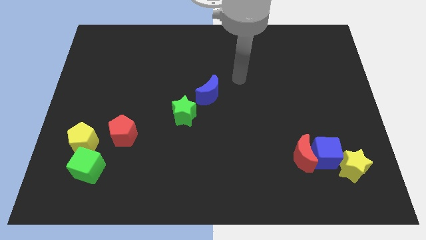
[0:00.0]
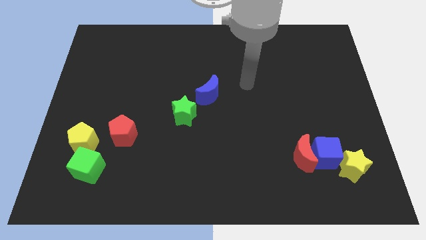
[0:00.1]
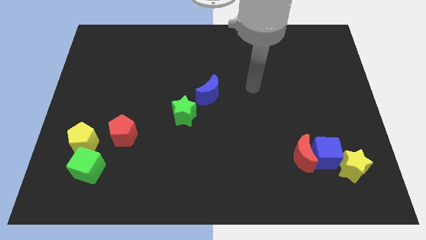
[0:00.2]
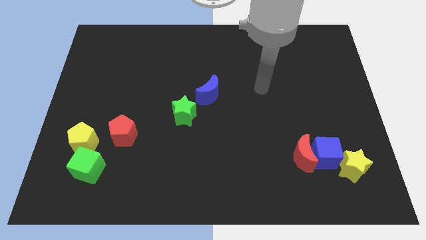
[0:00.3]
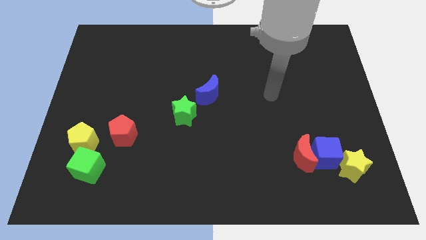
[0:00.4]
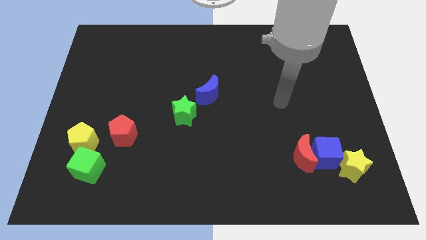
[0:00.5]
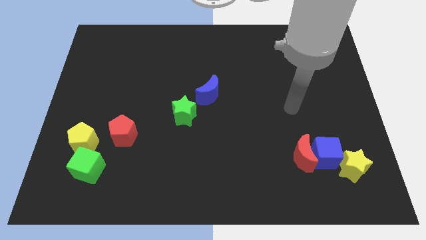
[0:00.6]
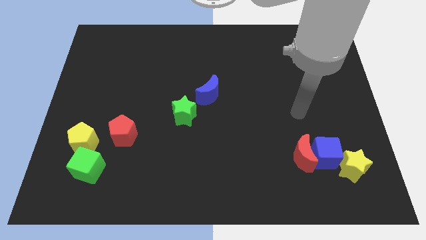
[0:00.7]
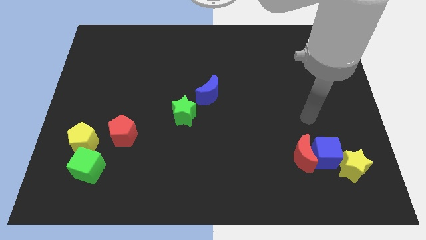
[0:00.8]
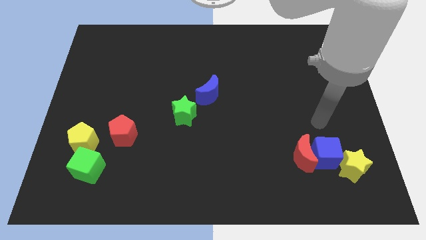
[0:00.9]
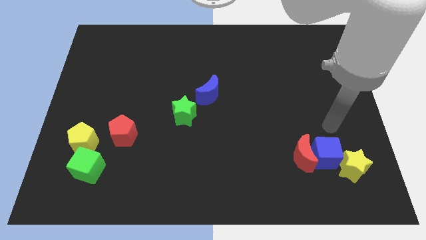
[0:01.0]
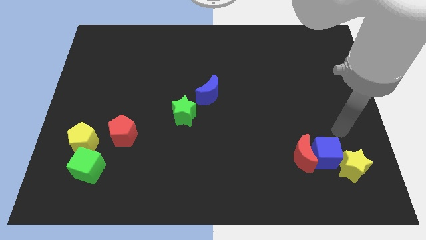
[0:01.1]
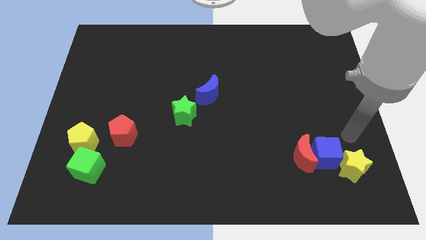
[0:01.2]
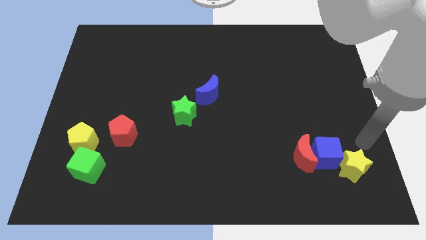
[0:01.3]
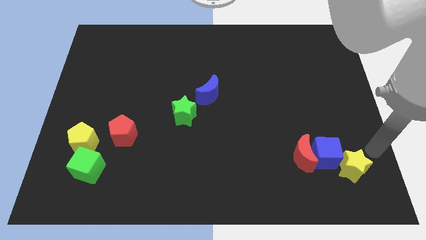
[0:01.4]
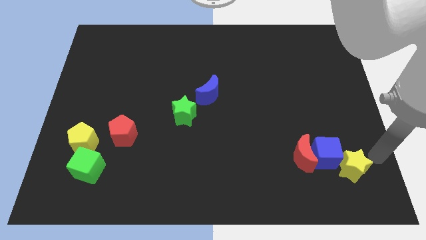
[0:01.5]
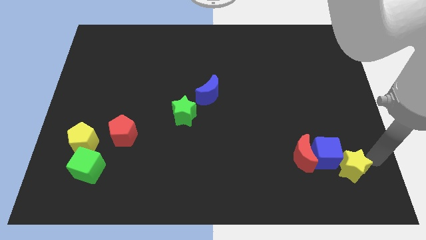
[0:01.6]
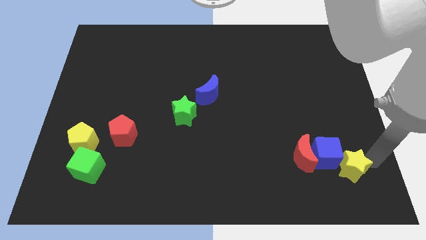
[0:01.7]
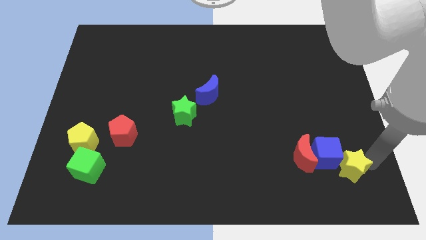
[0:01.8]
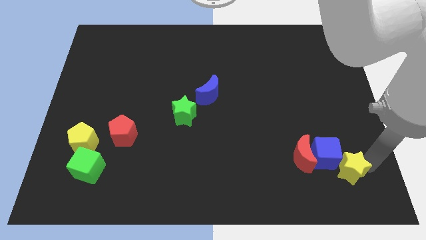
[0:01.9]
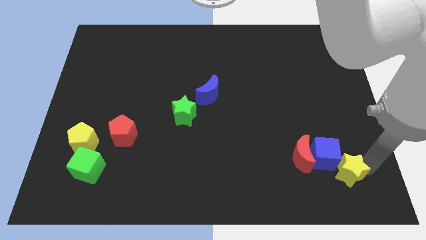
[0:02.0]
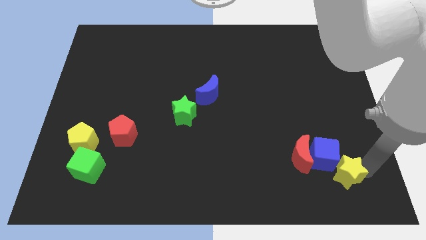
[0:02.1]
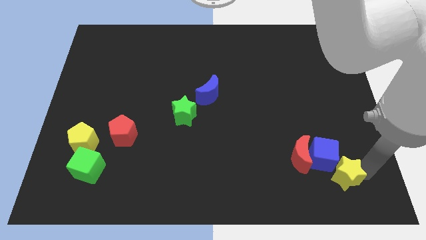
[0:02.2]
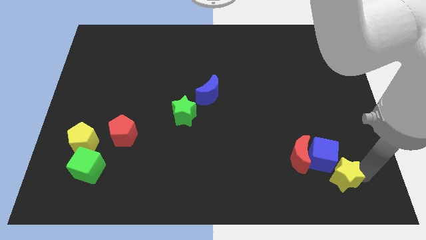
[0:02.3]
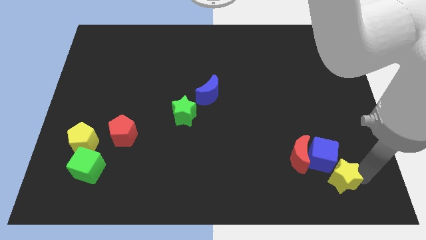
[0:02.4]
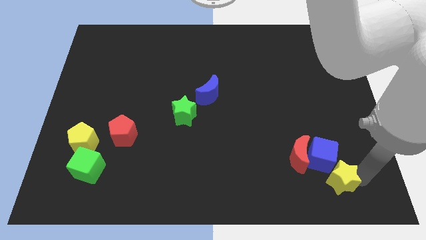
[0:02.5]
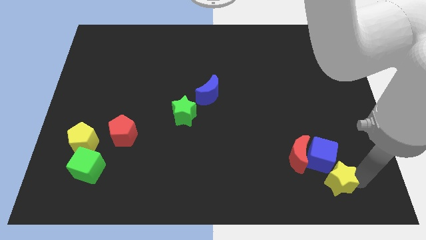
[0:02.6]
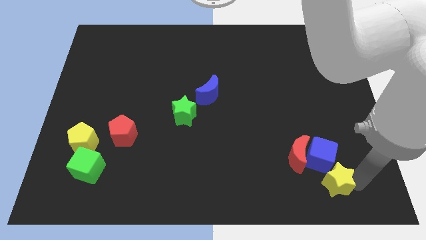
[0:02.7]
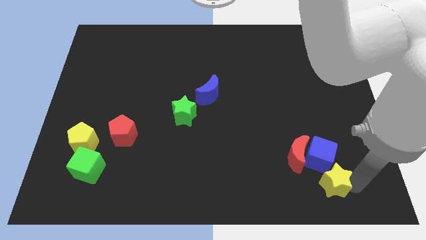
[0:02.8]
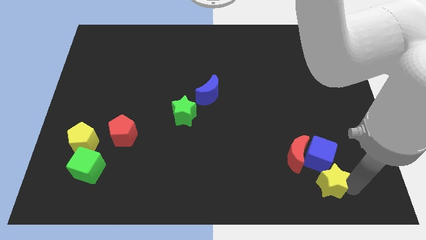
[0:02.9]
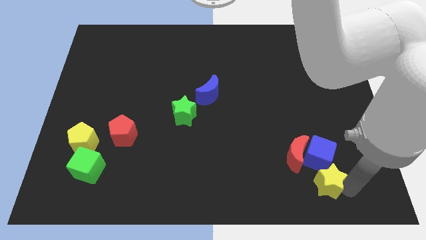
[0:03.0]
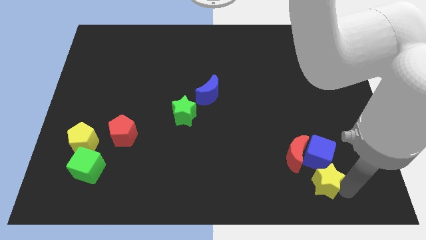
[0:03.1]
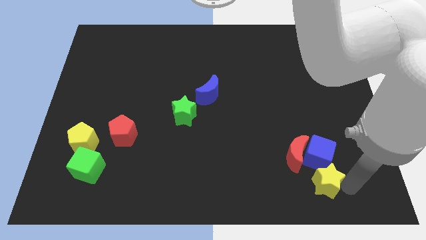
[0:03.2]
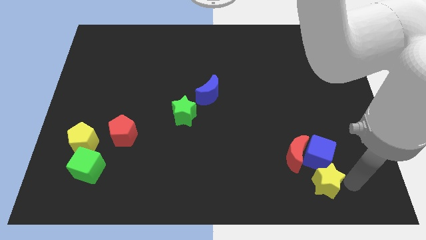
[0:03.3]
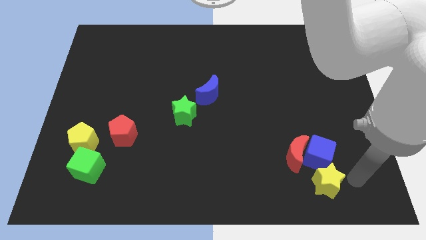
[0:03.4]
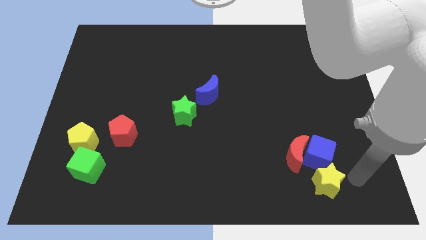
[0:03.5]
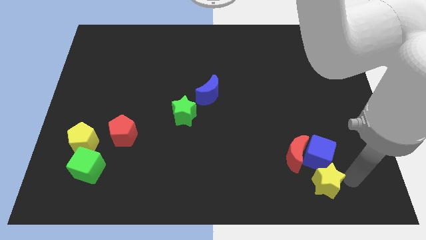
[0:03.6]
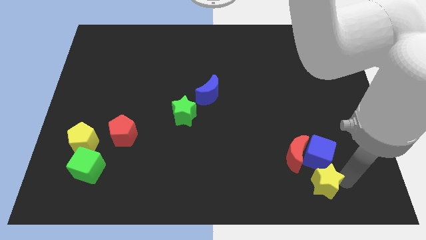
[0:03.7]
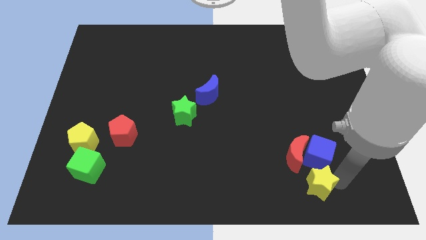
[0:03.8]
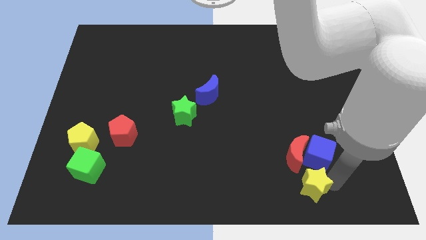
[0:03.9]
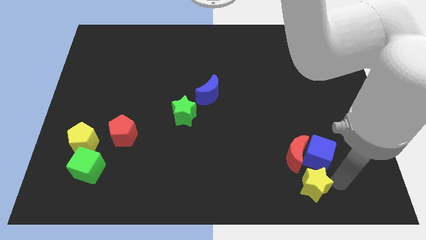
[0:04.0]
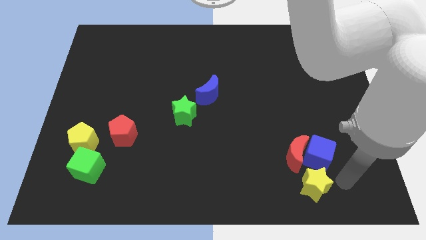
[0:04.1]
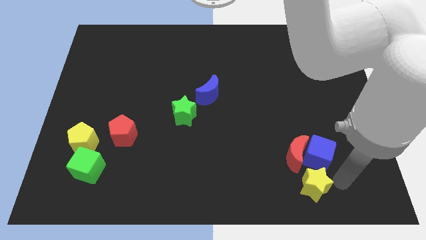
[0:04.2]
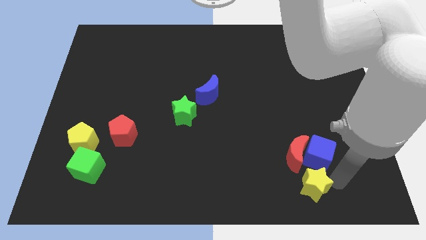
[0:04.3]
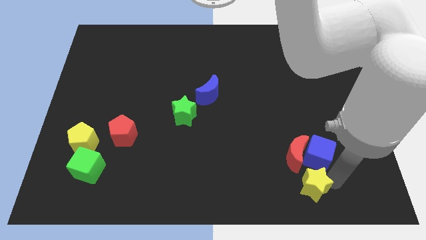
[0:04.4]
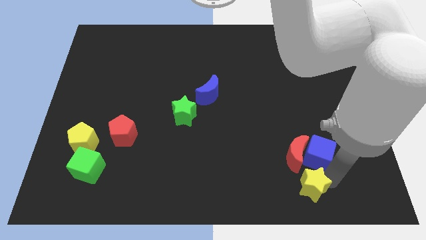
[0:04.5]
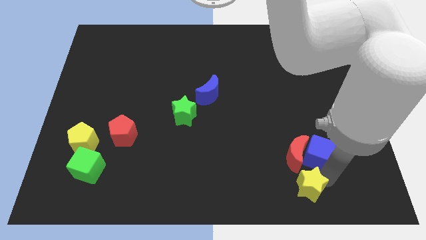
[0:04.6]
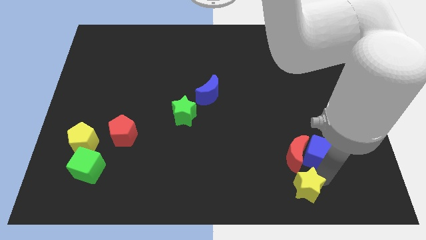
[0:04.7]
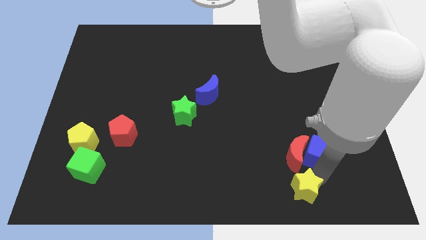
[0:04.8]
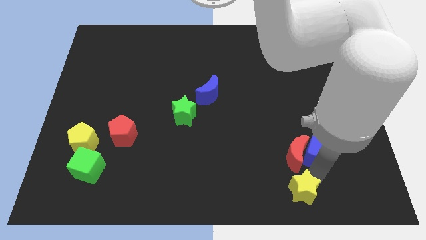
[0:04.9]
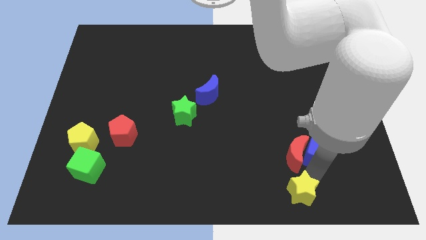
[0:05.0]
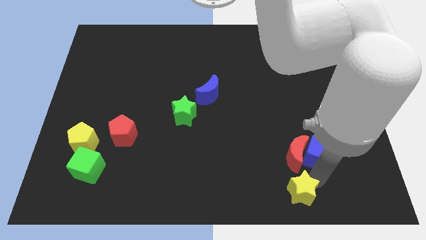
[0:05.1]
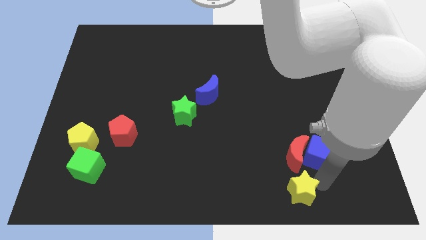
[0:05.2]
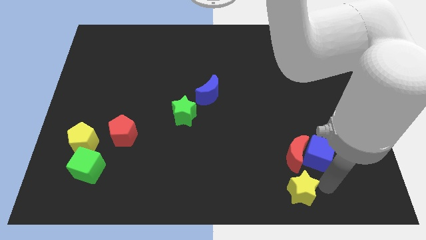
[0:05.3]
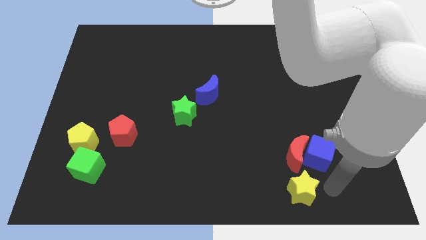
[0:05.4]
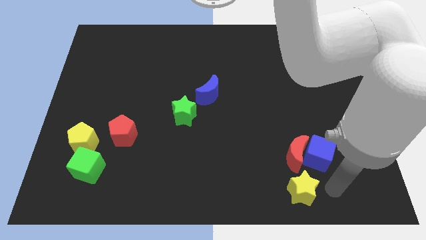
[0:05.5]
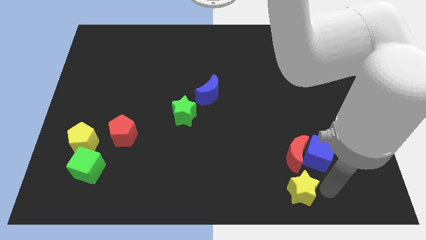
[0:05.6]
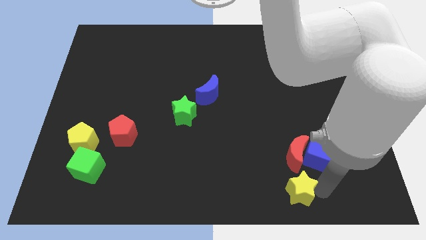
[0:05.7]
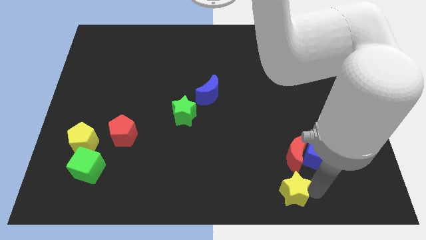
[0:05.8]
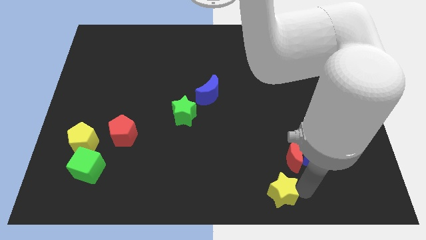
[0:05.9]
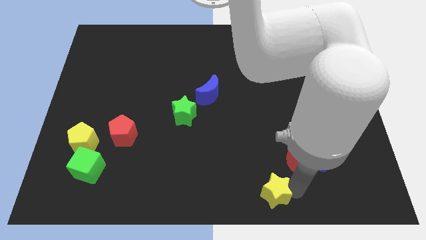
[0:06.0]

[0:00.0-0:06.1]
push the yellow star to the bottom side

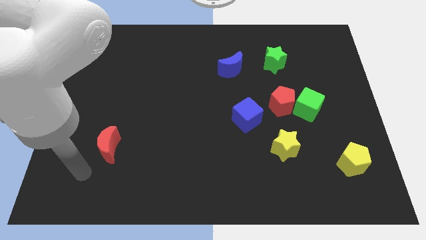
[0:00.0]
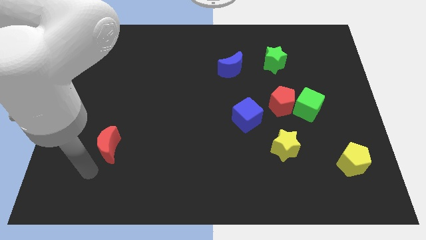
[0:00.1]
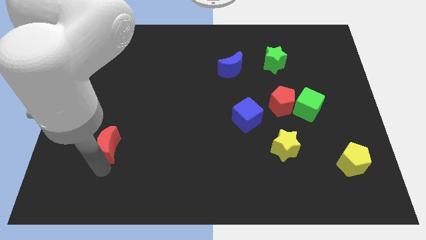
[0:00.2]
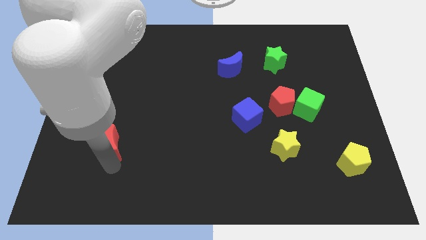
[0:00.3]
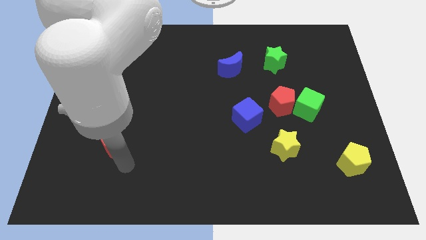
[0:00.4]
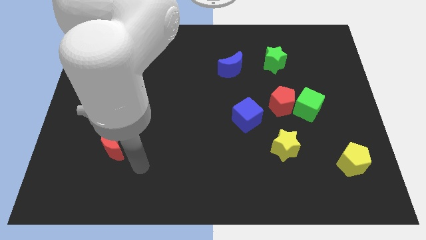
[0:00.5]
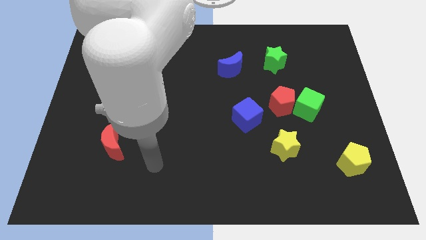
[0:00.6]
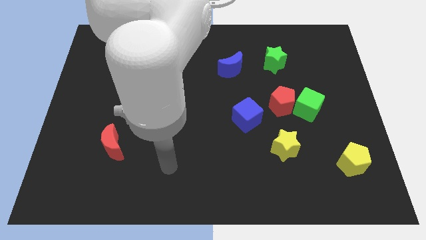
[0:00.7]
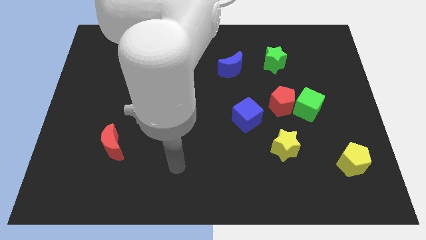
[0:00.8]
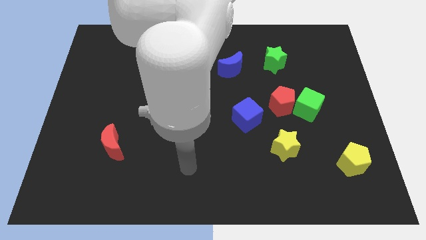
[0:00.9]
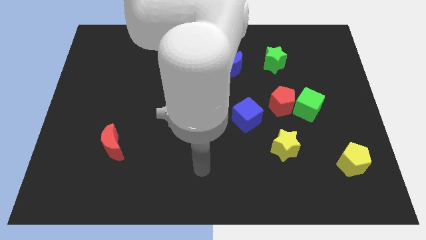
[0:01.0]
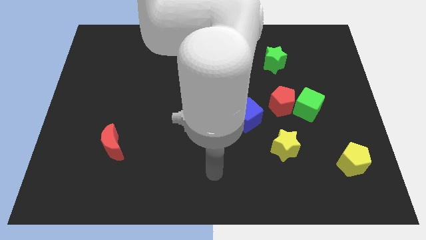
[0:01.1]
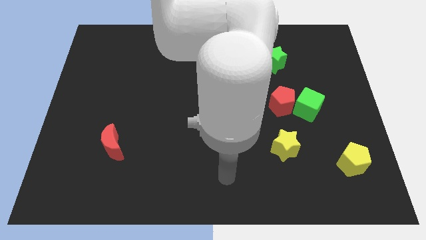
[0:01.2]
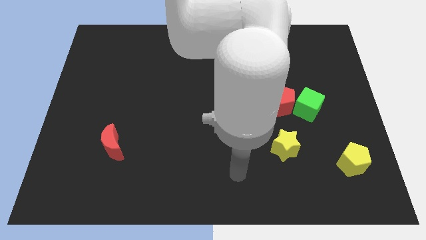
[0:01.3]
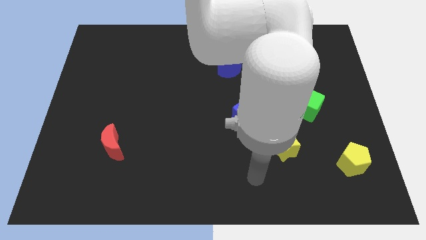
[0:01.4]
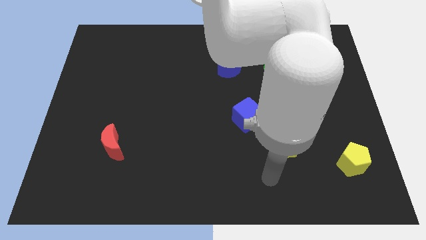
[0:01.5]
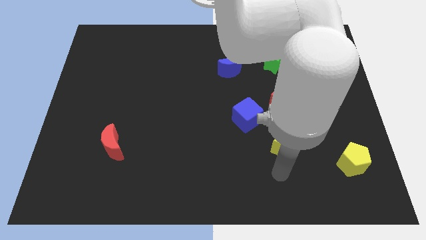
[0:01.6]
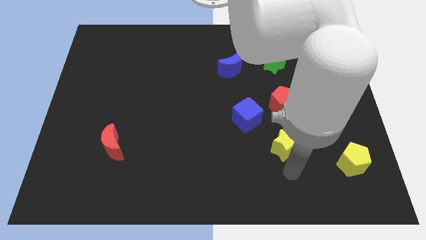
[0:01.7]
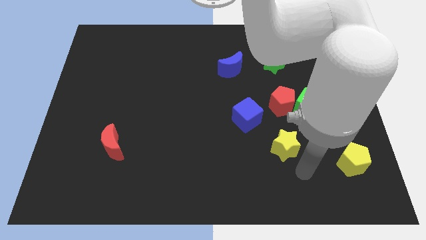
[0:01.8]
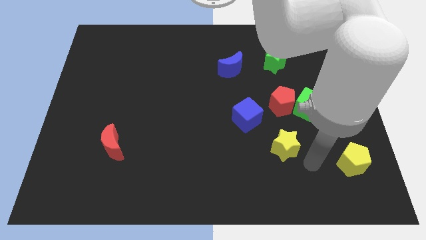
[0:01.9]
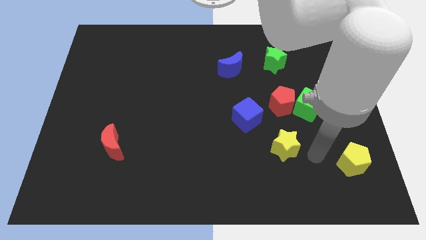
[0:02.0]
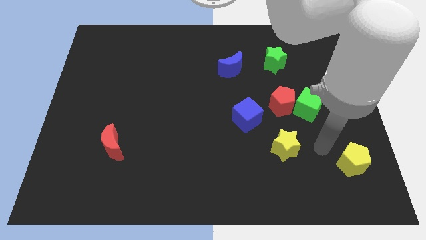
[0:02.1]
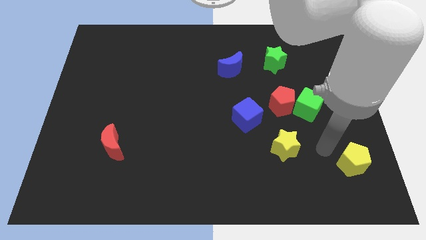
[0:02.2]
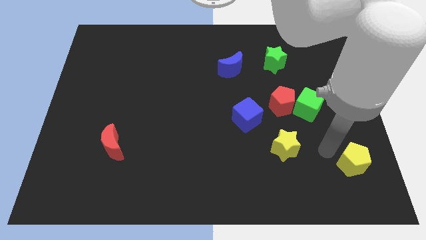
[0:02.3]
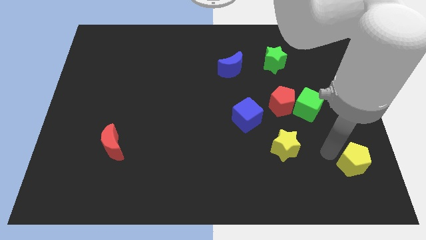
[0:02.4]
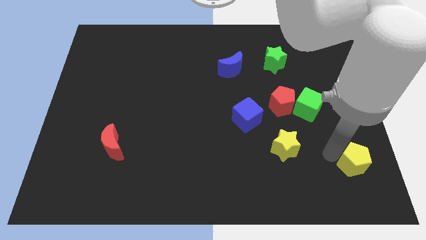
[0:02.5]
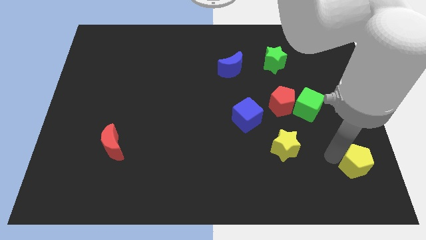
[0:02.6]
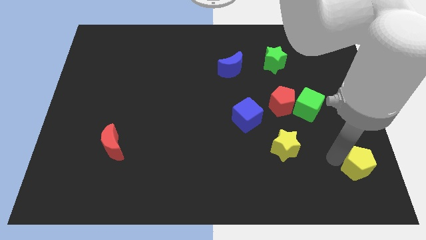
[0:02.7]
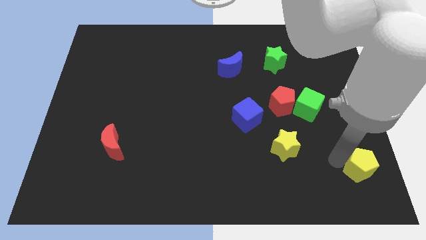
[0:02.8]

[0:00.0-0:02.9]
move the yellow pentagon to the lower right corner
